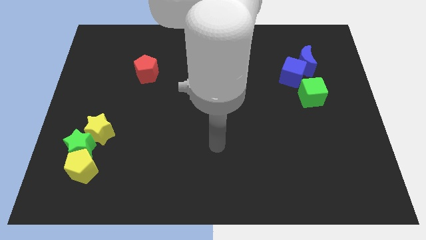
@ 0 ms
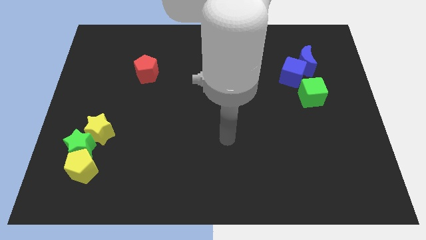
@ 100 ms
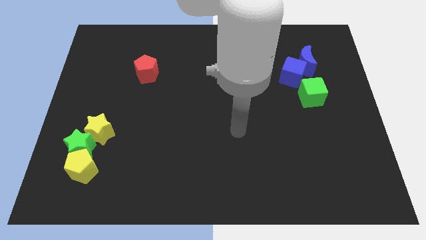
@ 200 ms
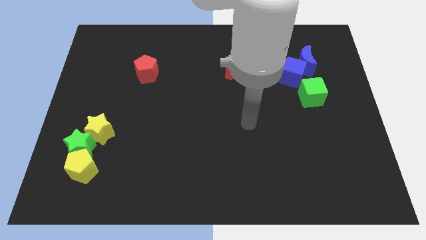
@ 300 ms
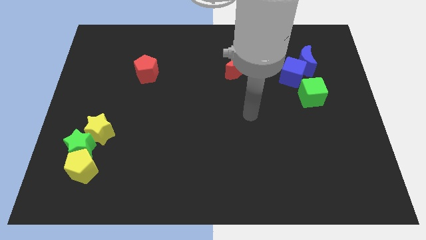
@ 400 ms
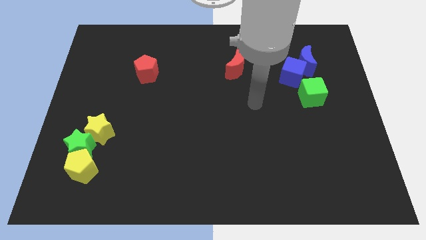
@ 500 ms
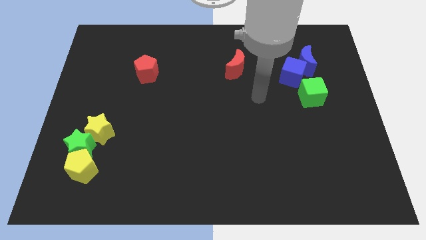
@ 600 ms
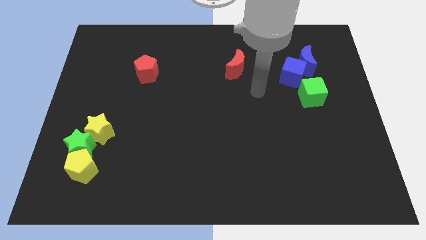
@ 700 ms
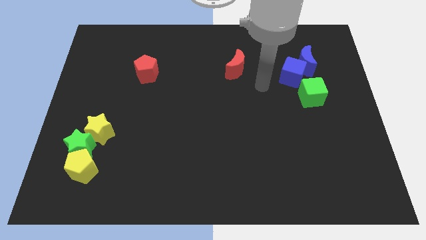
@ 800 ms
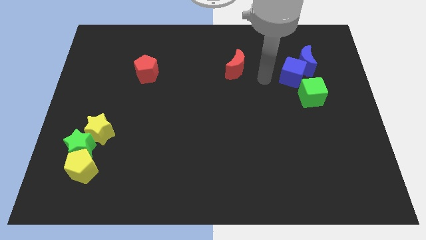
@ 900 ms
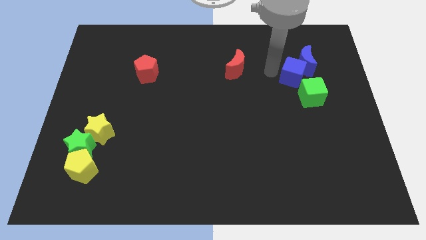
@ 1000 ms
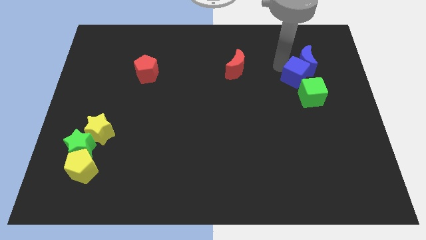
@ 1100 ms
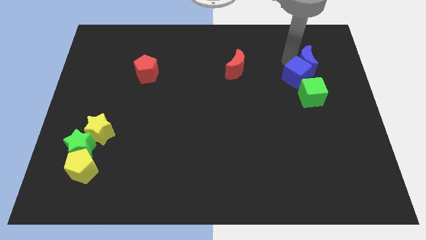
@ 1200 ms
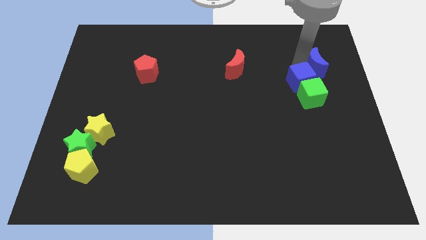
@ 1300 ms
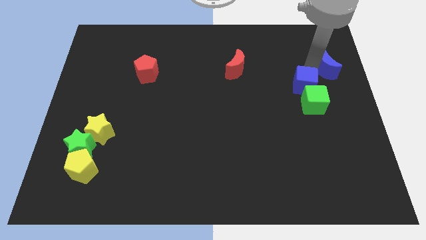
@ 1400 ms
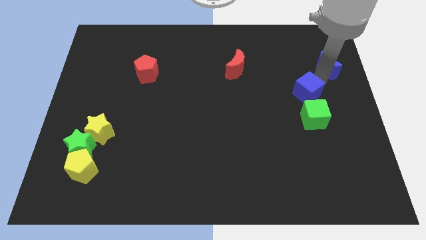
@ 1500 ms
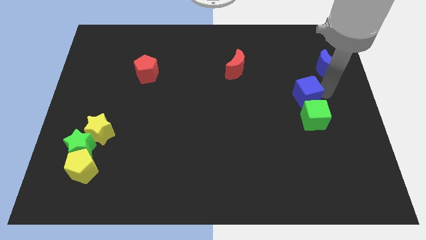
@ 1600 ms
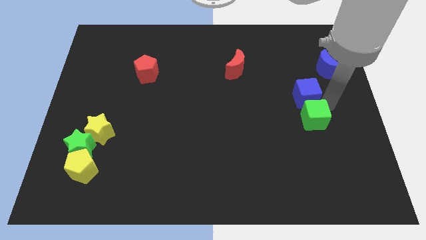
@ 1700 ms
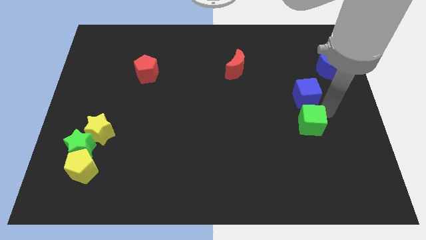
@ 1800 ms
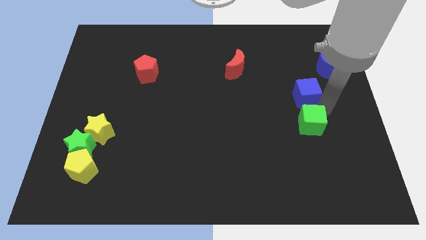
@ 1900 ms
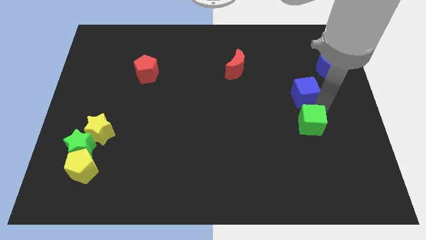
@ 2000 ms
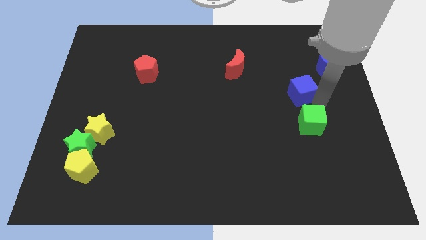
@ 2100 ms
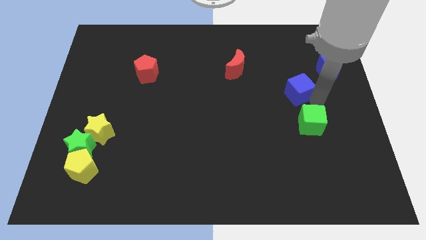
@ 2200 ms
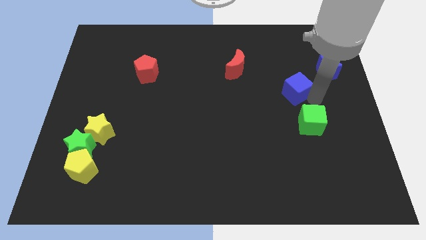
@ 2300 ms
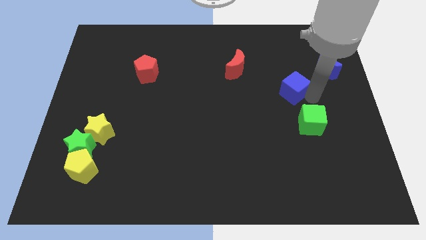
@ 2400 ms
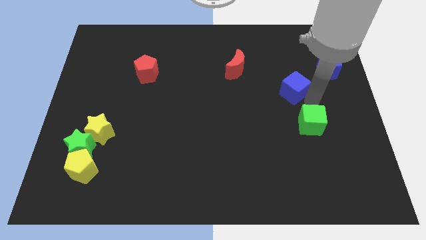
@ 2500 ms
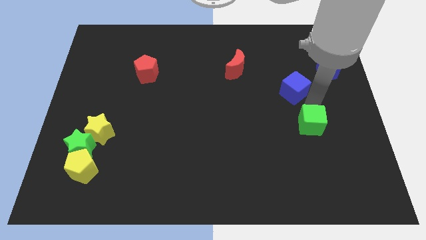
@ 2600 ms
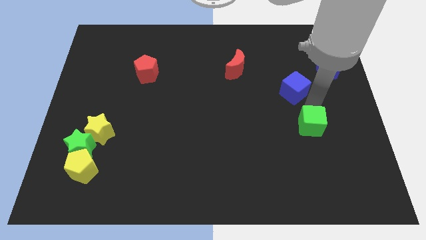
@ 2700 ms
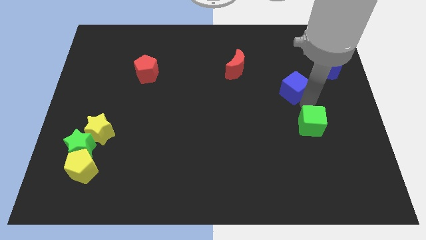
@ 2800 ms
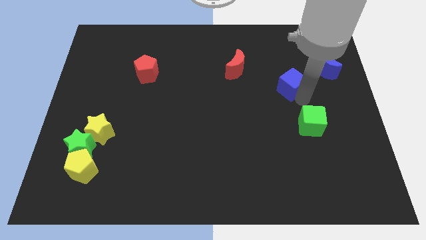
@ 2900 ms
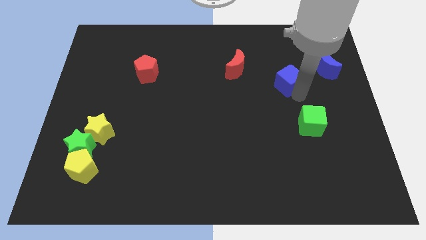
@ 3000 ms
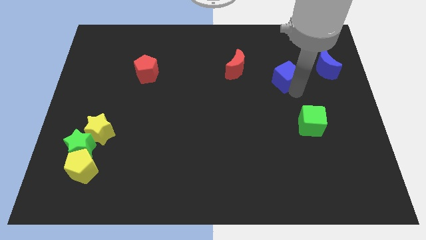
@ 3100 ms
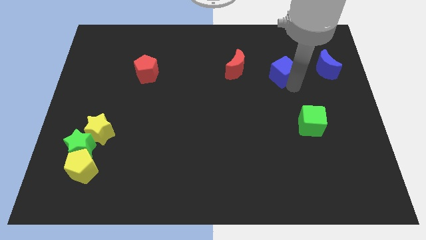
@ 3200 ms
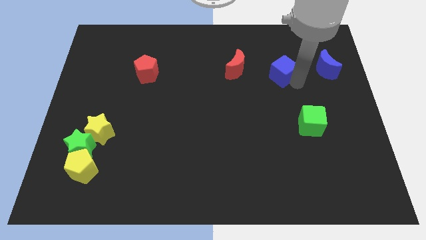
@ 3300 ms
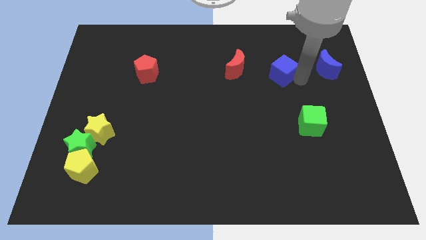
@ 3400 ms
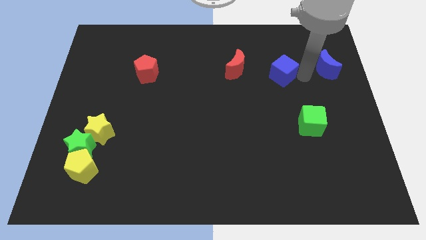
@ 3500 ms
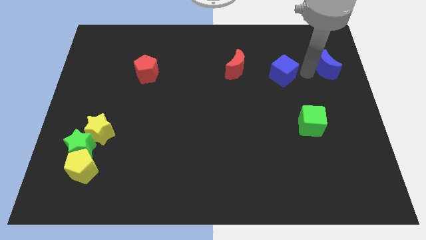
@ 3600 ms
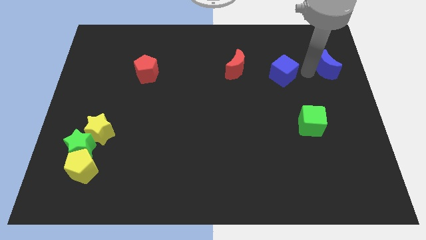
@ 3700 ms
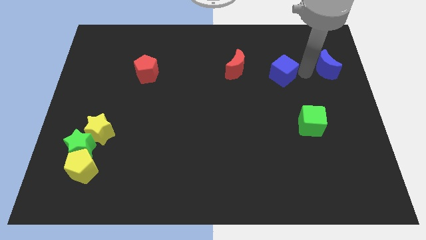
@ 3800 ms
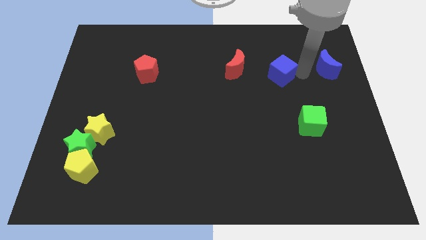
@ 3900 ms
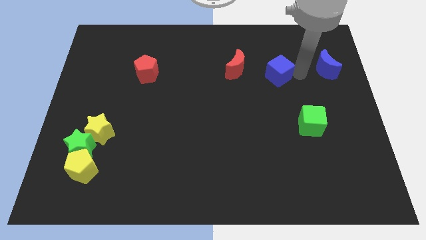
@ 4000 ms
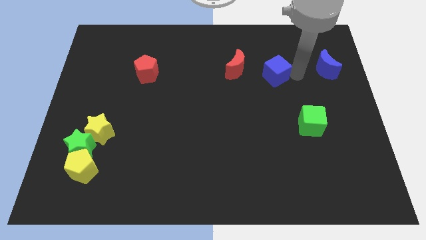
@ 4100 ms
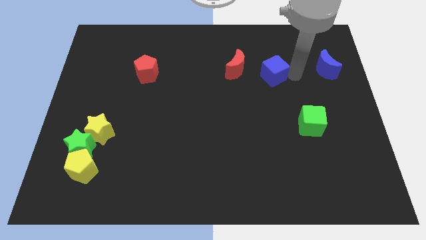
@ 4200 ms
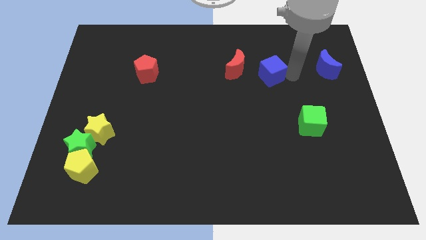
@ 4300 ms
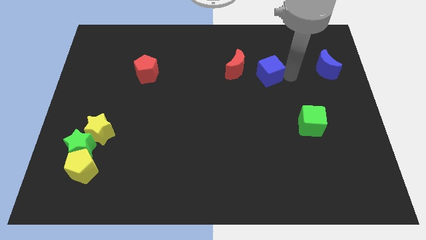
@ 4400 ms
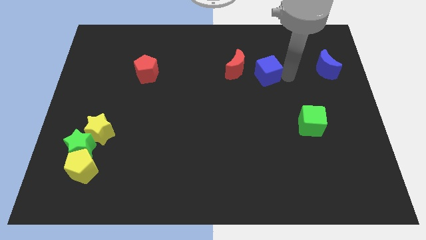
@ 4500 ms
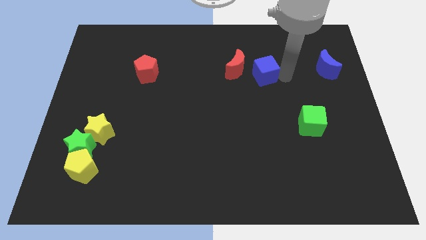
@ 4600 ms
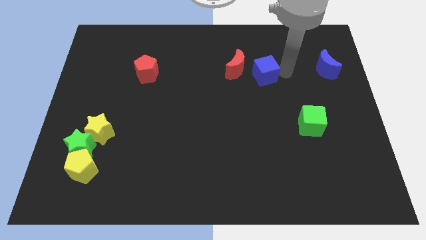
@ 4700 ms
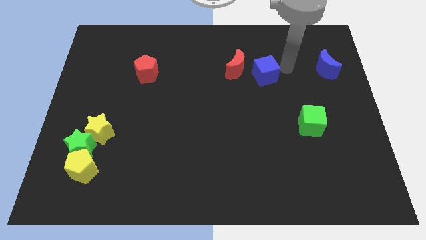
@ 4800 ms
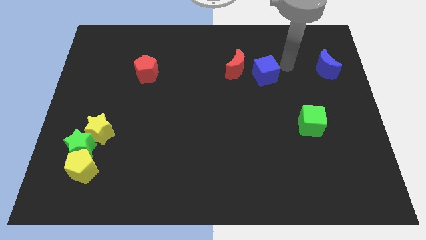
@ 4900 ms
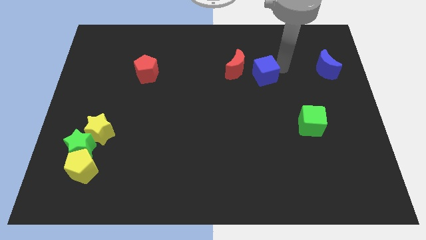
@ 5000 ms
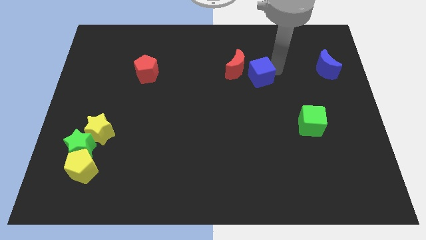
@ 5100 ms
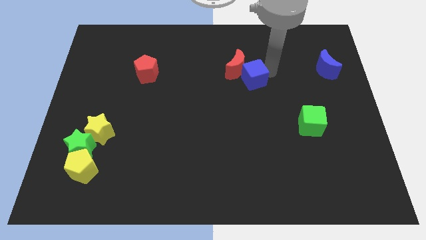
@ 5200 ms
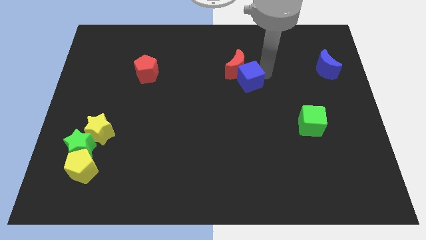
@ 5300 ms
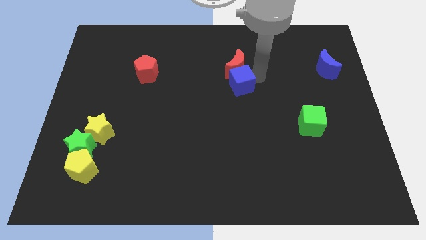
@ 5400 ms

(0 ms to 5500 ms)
slide the blue cube diagonally down and to the left of the red moon

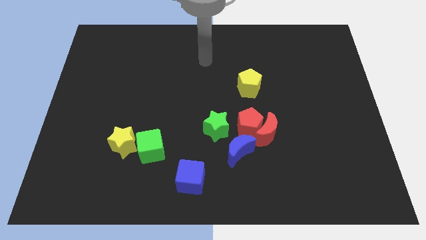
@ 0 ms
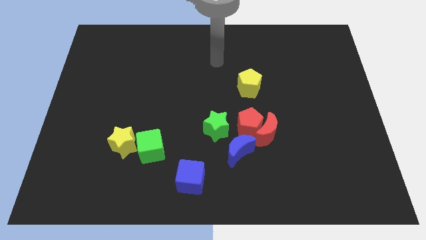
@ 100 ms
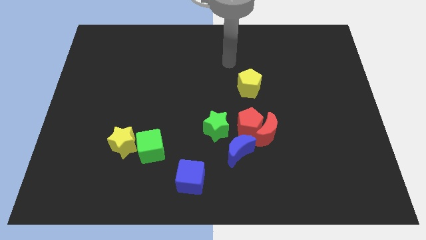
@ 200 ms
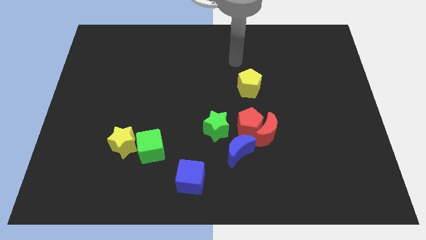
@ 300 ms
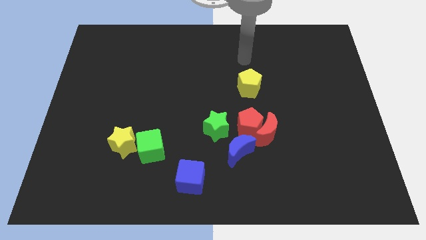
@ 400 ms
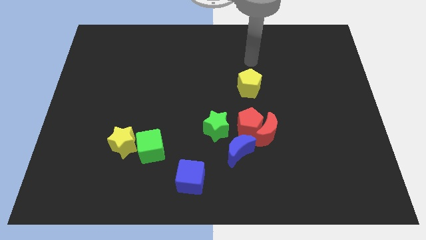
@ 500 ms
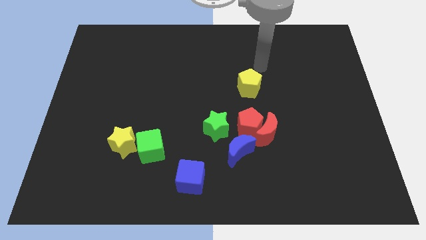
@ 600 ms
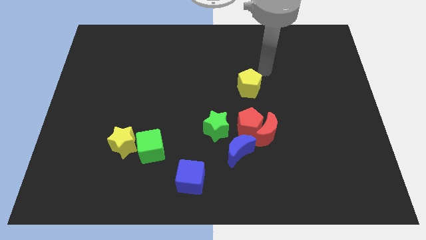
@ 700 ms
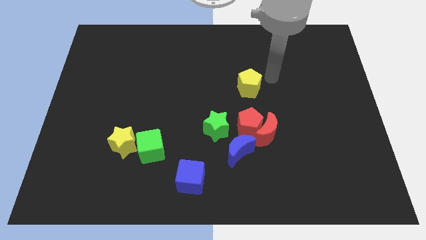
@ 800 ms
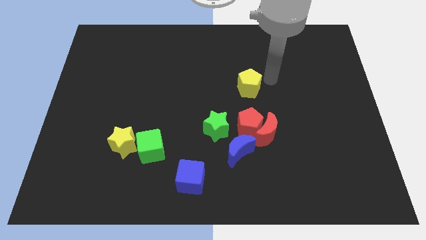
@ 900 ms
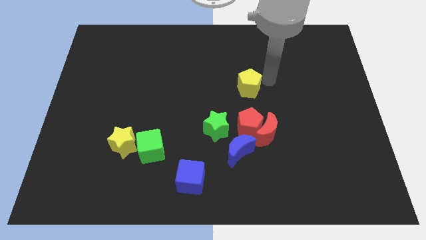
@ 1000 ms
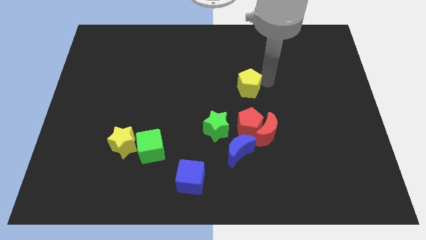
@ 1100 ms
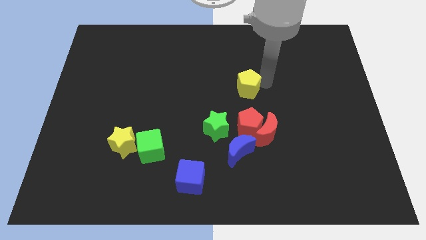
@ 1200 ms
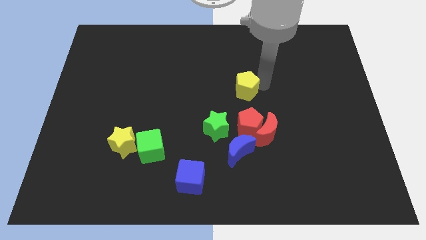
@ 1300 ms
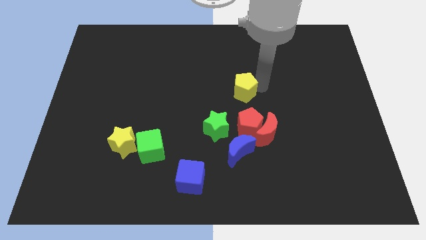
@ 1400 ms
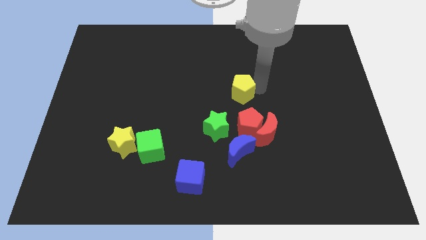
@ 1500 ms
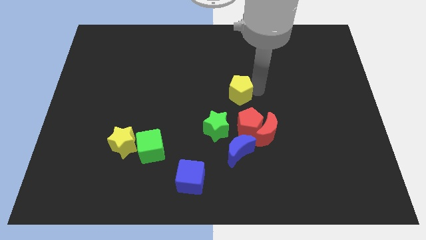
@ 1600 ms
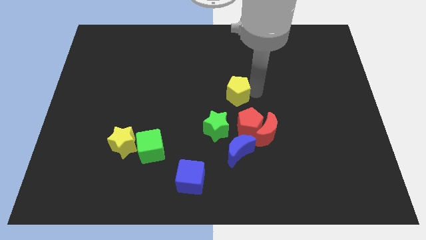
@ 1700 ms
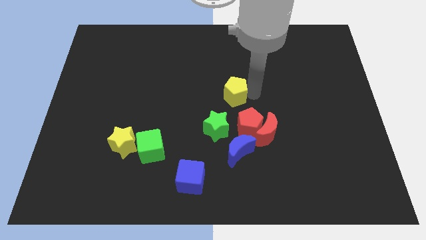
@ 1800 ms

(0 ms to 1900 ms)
slide the yellow pentagon to the top side of the green star
